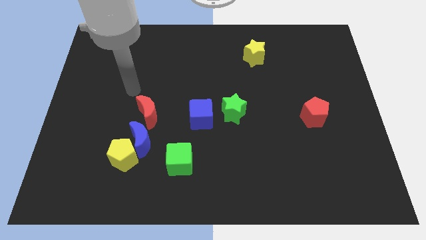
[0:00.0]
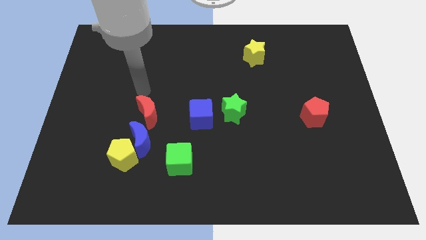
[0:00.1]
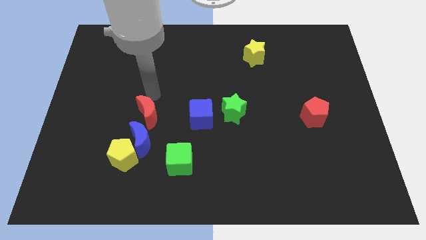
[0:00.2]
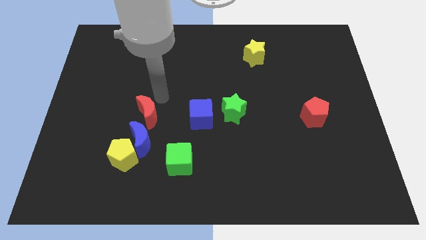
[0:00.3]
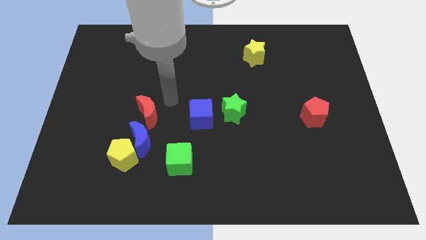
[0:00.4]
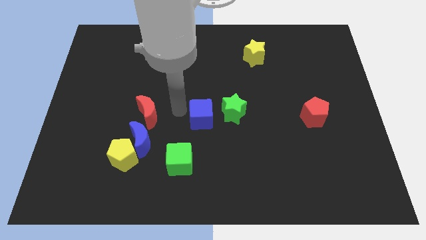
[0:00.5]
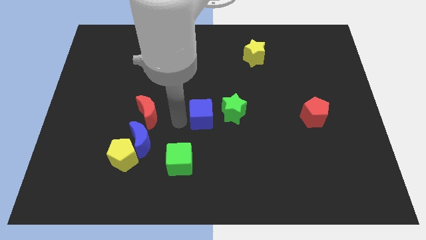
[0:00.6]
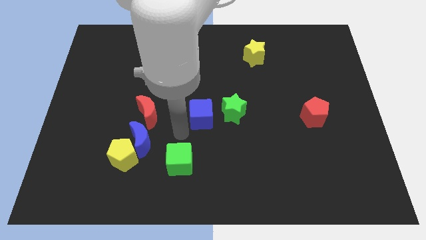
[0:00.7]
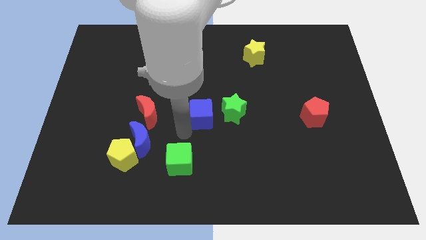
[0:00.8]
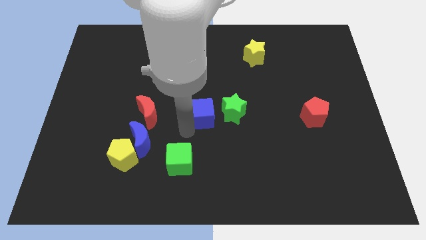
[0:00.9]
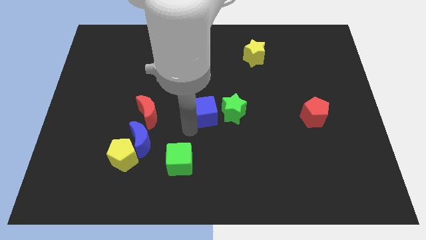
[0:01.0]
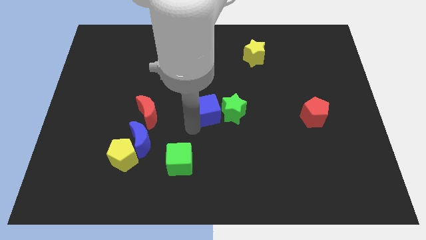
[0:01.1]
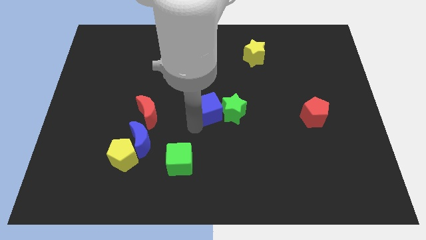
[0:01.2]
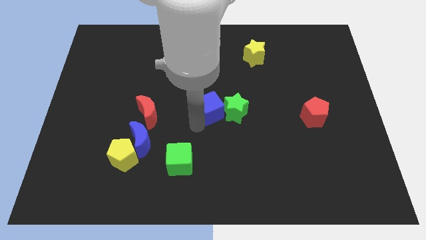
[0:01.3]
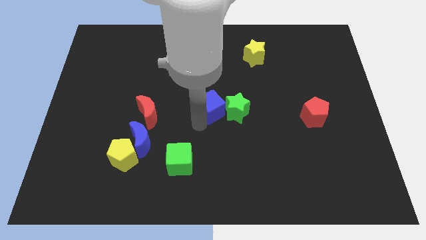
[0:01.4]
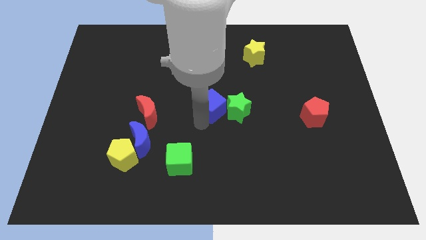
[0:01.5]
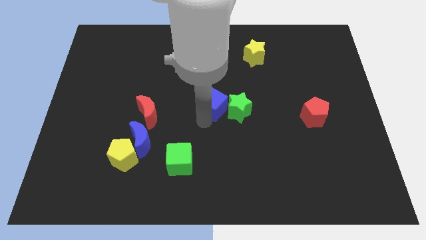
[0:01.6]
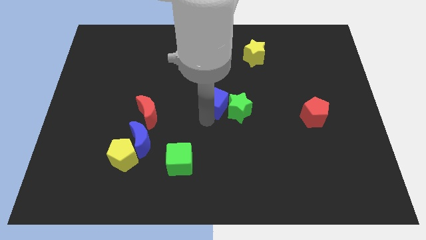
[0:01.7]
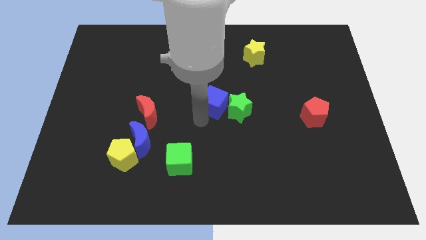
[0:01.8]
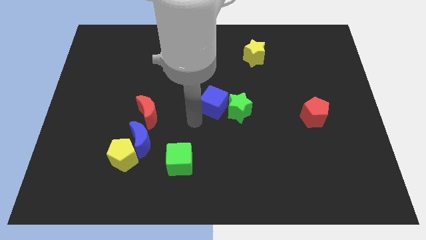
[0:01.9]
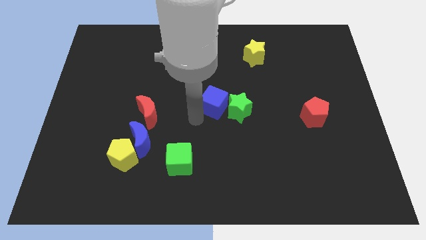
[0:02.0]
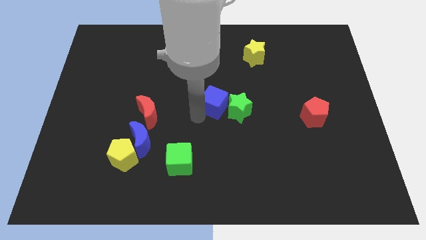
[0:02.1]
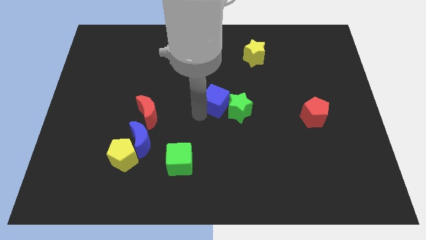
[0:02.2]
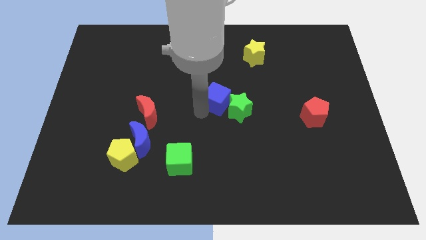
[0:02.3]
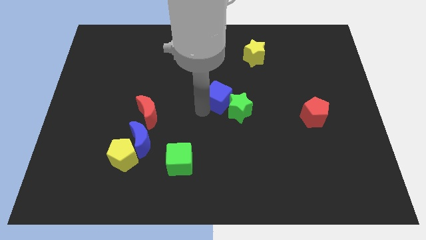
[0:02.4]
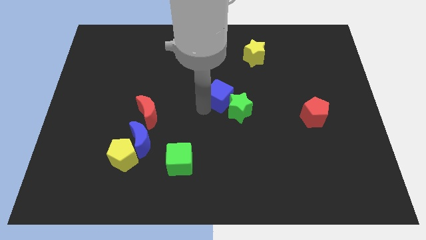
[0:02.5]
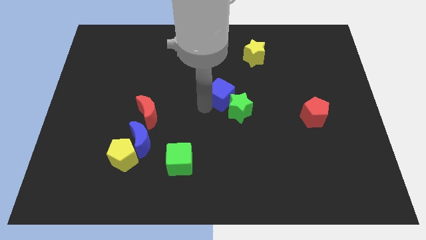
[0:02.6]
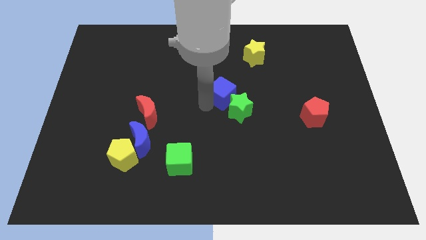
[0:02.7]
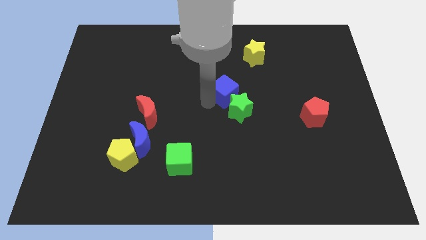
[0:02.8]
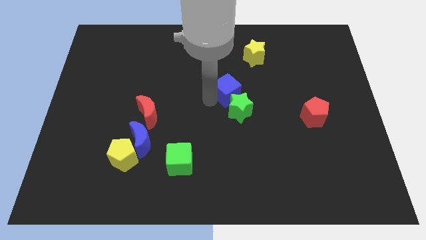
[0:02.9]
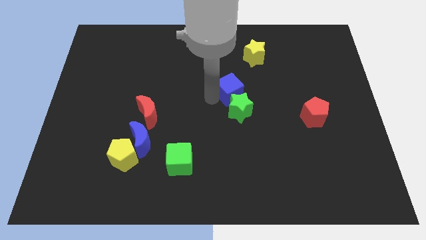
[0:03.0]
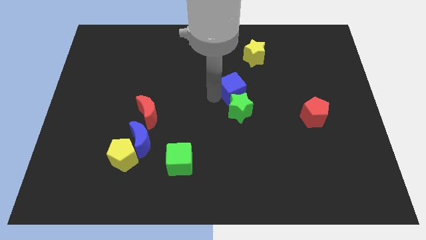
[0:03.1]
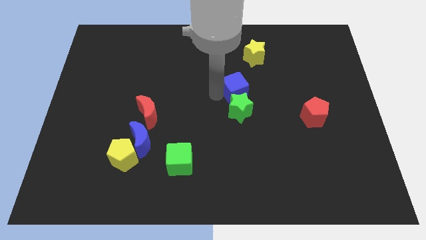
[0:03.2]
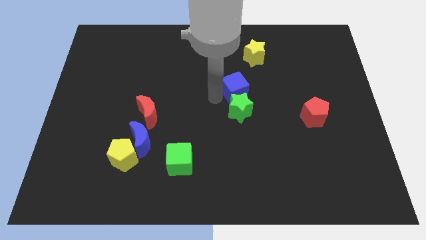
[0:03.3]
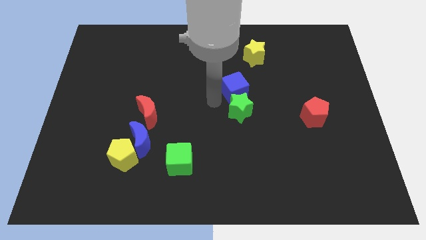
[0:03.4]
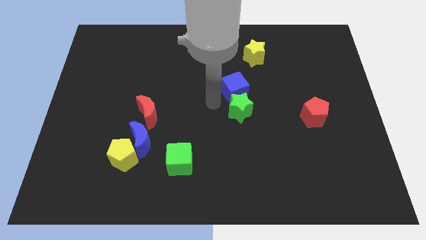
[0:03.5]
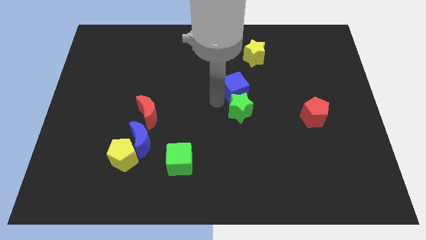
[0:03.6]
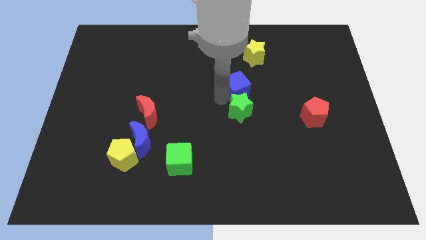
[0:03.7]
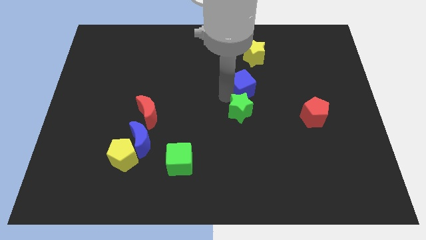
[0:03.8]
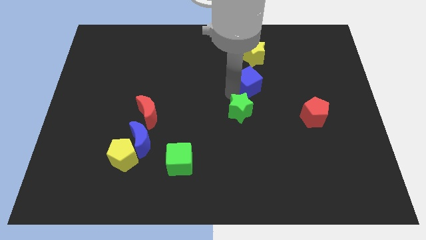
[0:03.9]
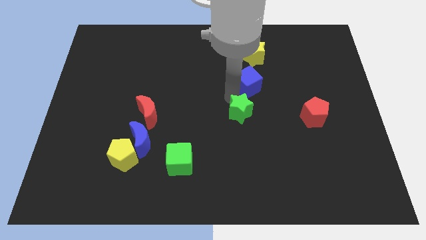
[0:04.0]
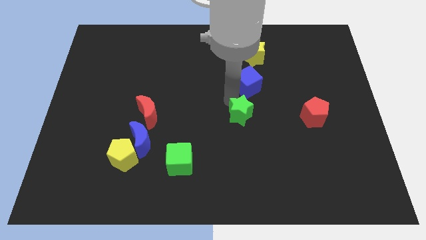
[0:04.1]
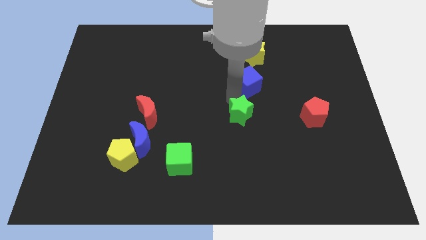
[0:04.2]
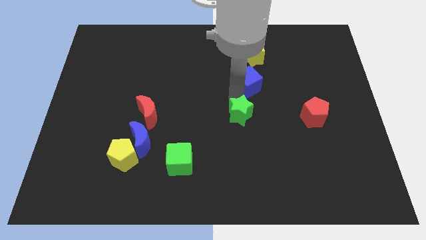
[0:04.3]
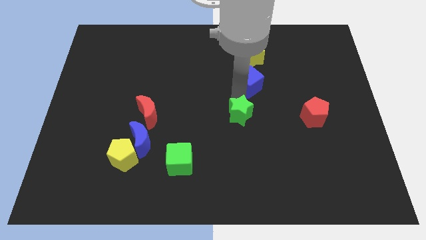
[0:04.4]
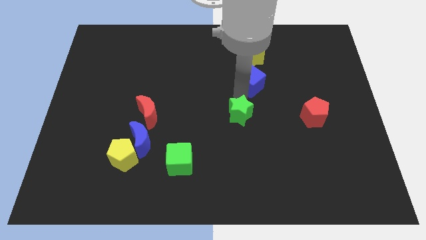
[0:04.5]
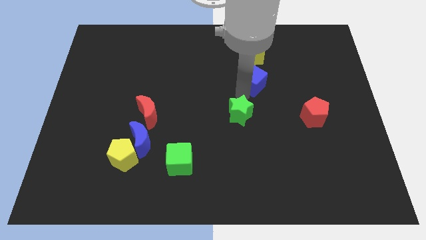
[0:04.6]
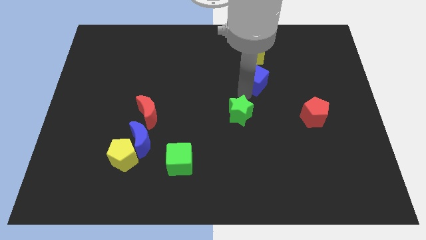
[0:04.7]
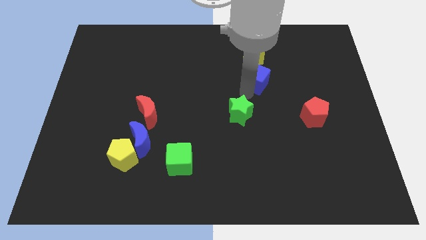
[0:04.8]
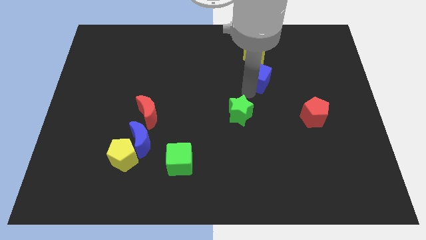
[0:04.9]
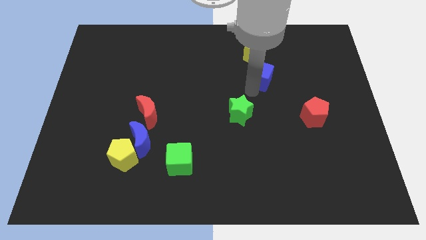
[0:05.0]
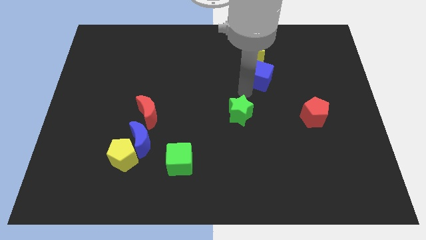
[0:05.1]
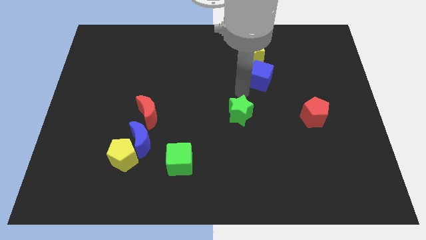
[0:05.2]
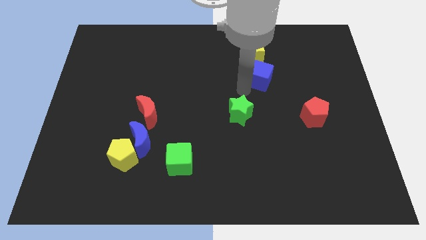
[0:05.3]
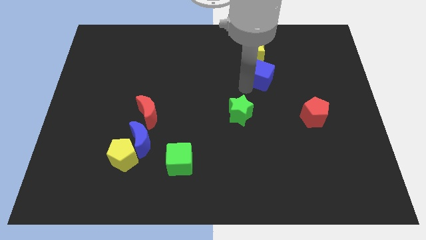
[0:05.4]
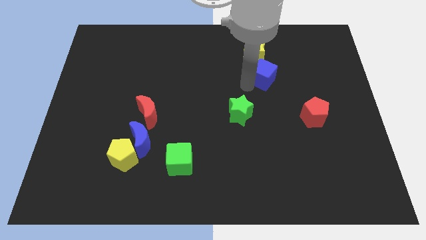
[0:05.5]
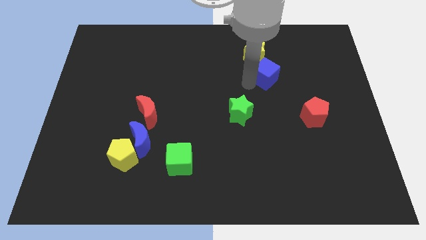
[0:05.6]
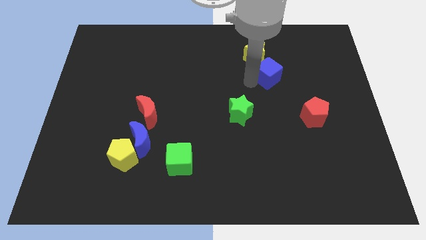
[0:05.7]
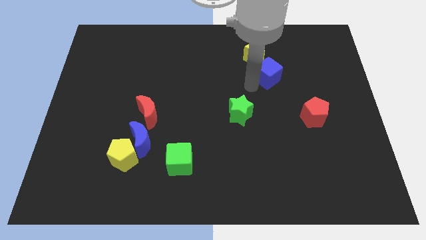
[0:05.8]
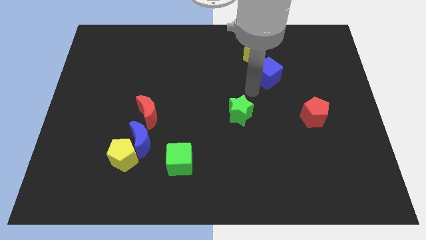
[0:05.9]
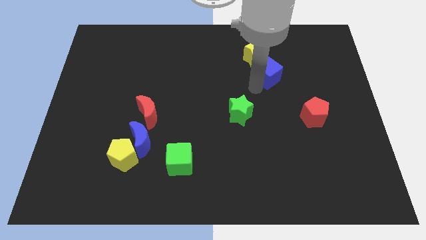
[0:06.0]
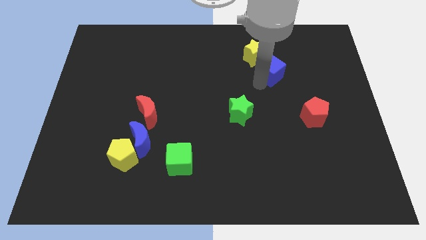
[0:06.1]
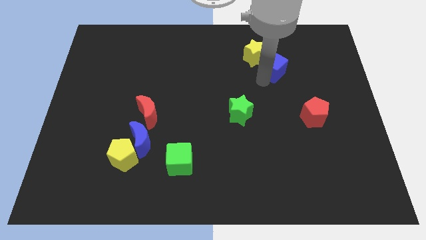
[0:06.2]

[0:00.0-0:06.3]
put the blue cube just right of the yellow star

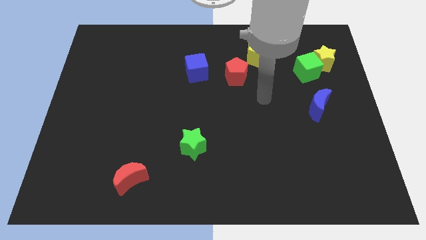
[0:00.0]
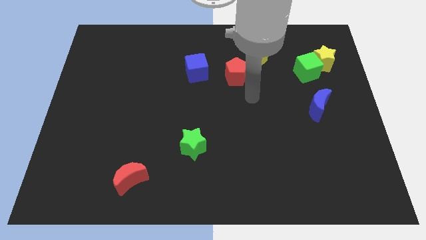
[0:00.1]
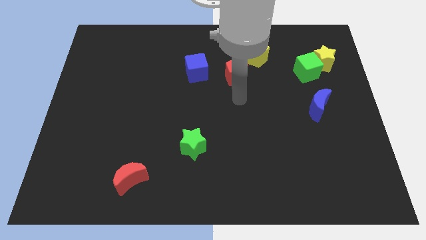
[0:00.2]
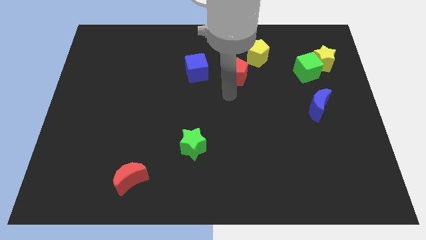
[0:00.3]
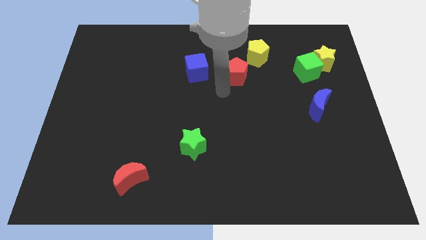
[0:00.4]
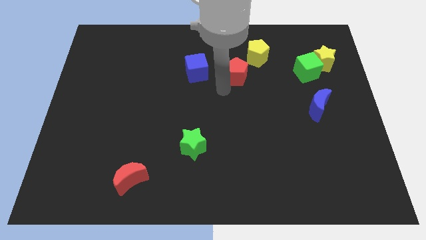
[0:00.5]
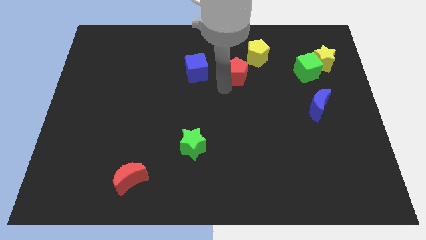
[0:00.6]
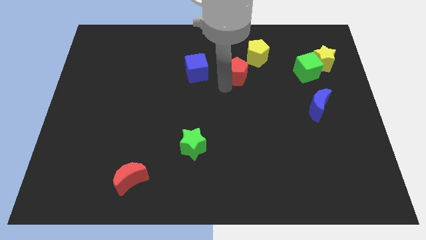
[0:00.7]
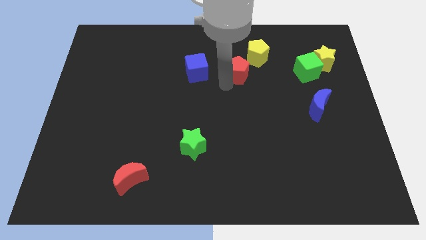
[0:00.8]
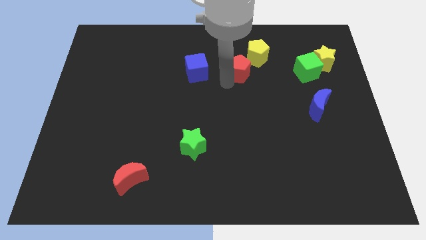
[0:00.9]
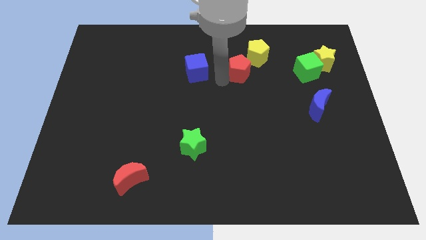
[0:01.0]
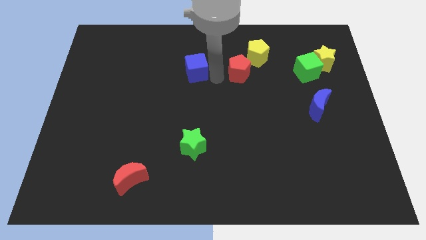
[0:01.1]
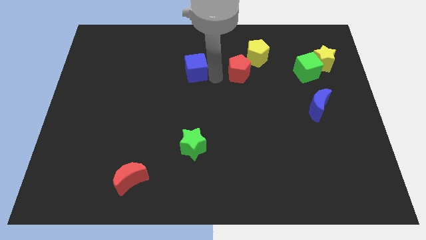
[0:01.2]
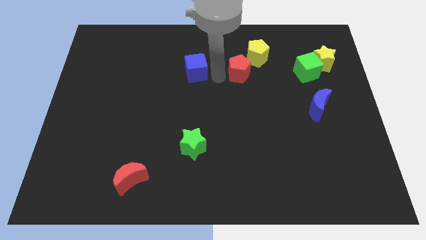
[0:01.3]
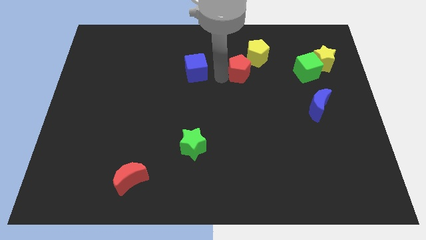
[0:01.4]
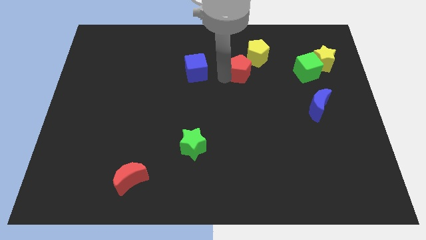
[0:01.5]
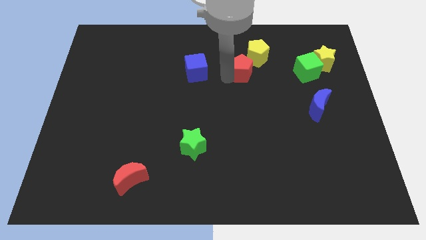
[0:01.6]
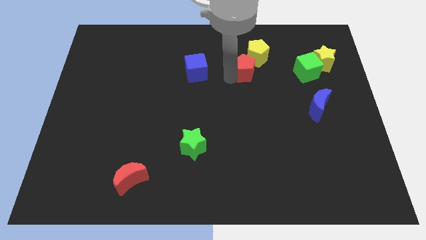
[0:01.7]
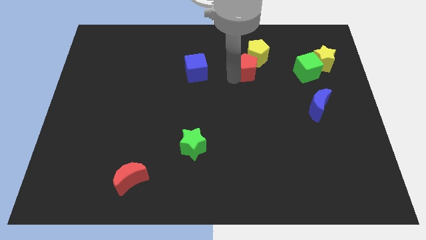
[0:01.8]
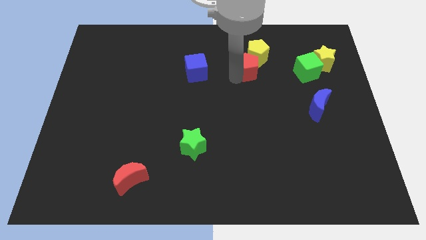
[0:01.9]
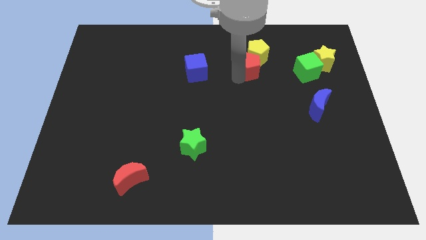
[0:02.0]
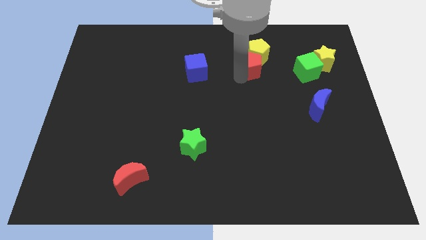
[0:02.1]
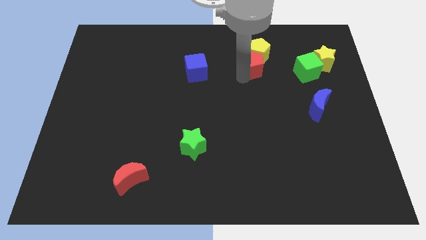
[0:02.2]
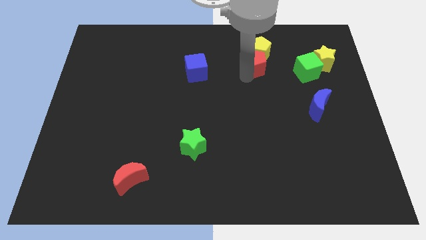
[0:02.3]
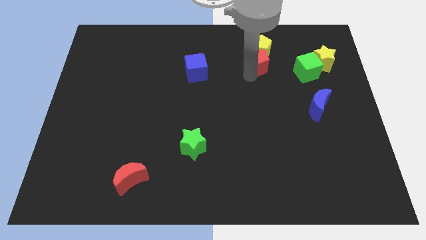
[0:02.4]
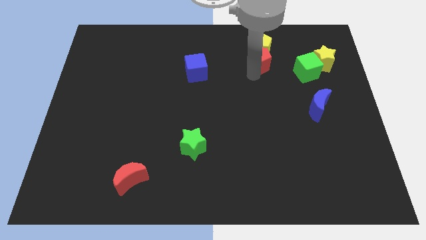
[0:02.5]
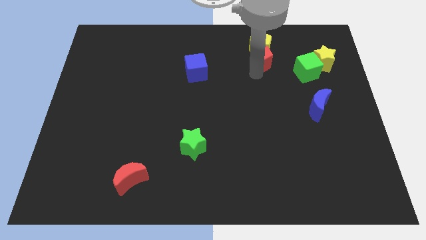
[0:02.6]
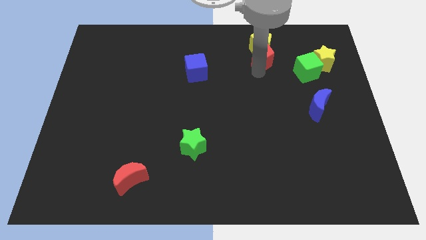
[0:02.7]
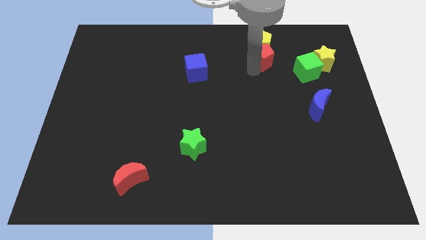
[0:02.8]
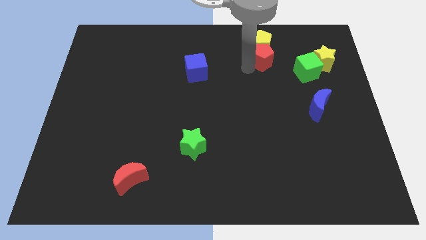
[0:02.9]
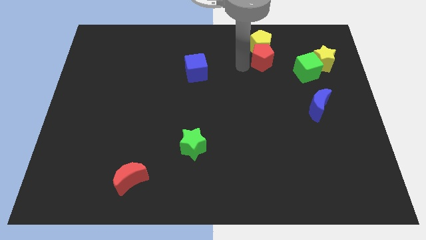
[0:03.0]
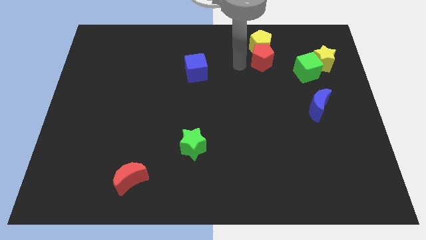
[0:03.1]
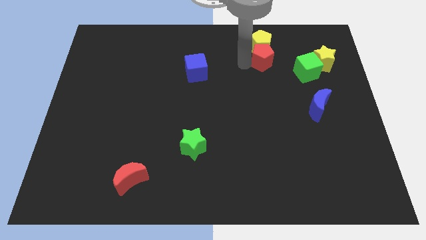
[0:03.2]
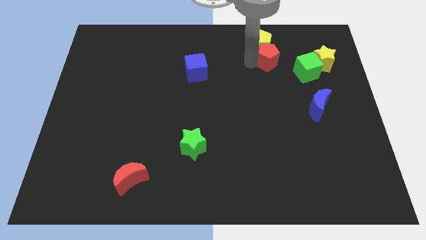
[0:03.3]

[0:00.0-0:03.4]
push the red pentagon diagonally up and to the left of the green cube
